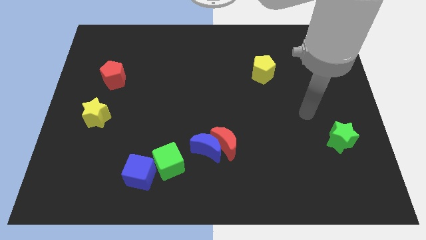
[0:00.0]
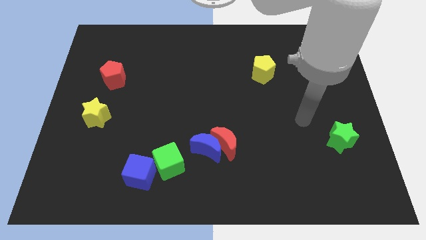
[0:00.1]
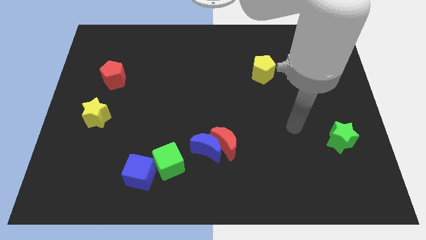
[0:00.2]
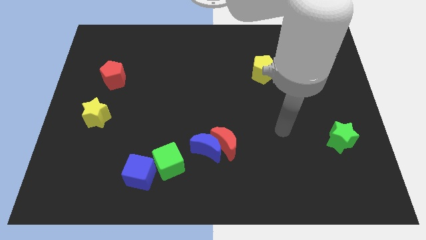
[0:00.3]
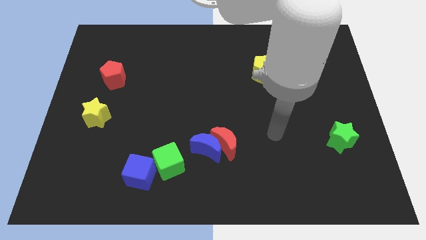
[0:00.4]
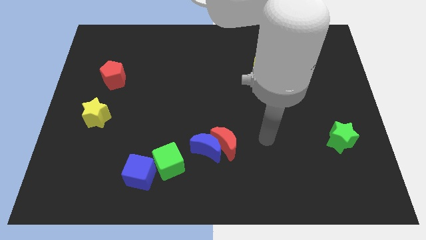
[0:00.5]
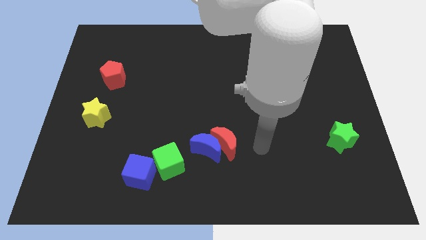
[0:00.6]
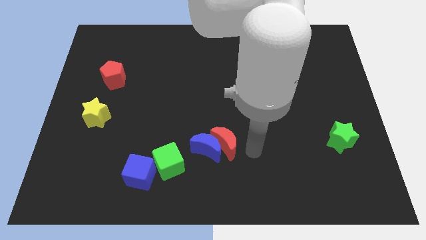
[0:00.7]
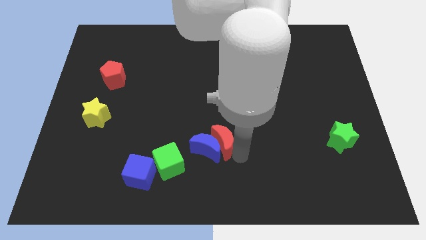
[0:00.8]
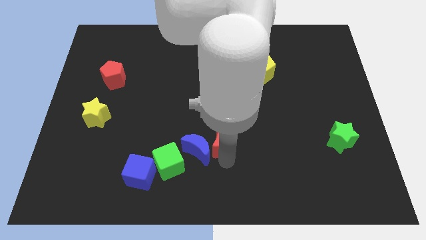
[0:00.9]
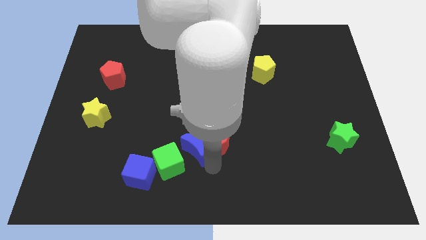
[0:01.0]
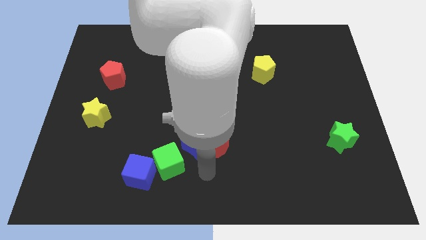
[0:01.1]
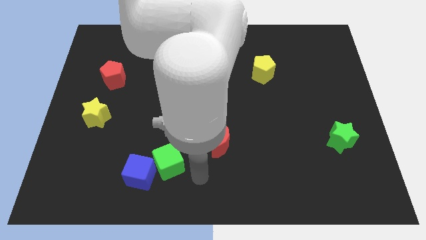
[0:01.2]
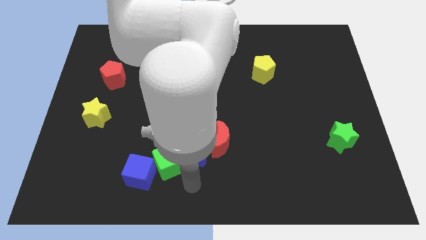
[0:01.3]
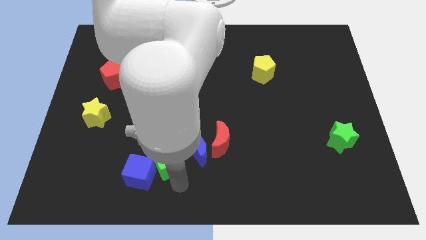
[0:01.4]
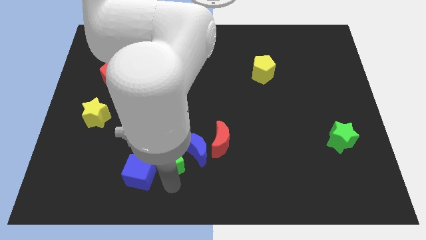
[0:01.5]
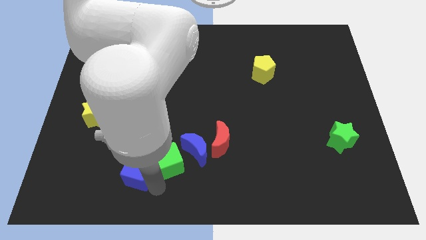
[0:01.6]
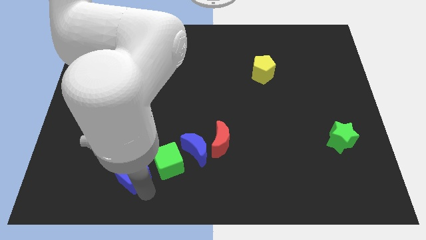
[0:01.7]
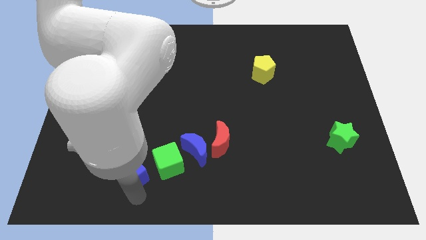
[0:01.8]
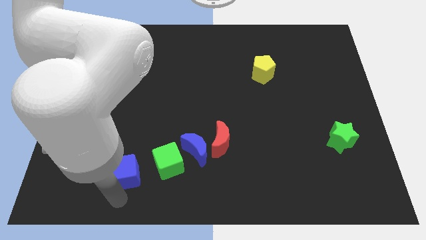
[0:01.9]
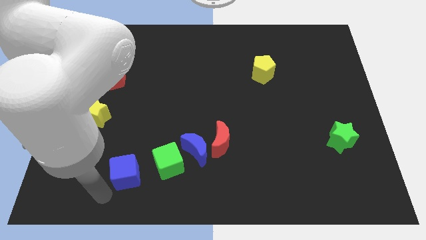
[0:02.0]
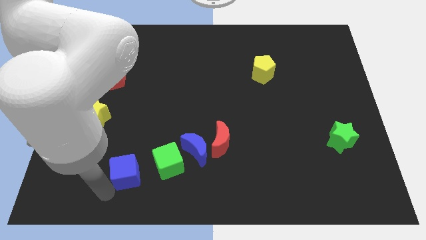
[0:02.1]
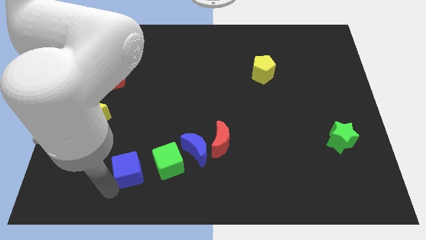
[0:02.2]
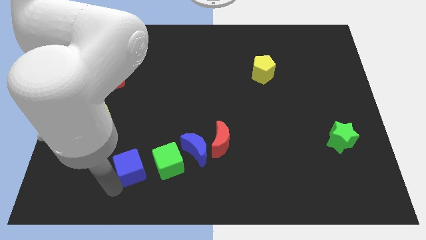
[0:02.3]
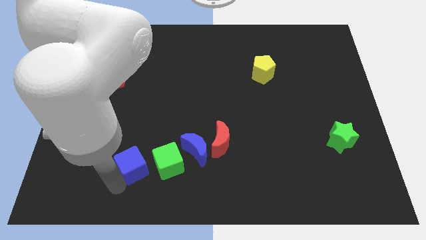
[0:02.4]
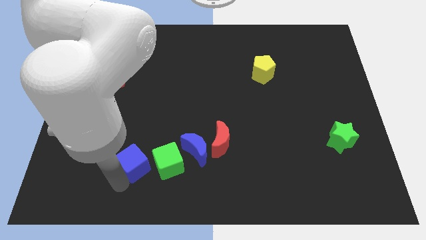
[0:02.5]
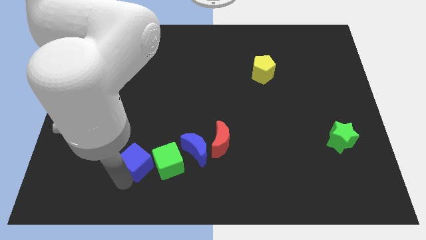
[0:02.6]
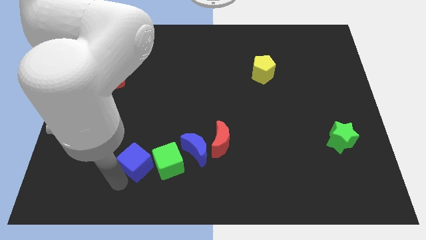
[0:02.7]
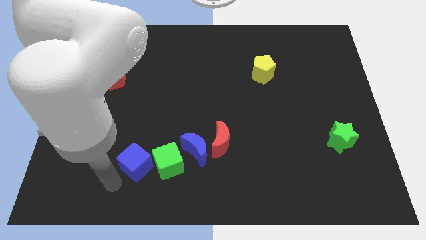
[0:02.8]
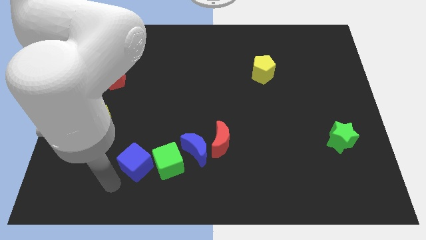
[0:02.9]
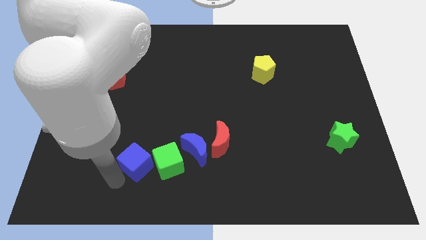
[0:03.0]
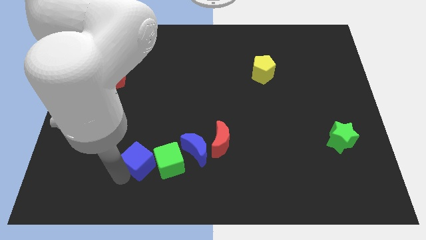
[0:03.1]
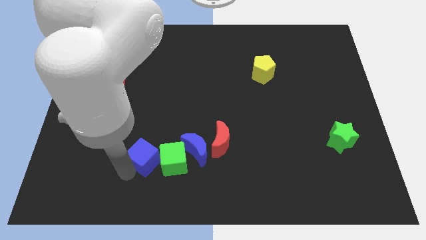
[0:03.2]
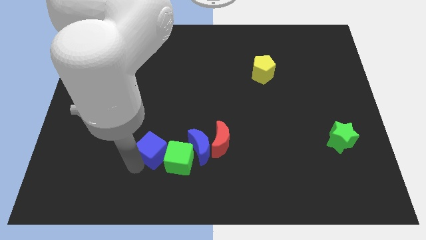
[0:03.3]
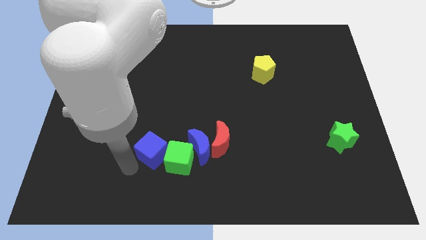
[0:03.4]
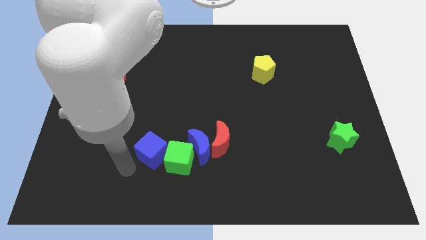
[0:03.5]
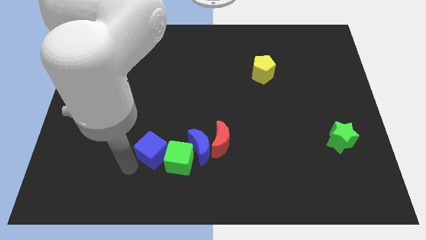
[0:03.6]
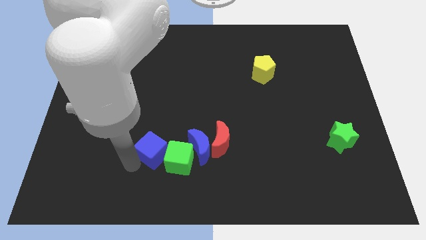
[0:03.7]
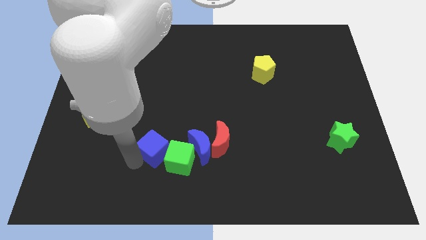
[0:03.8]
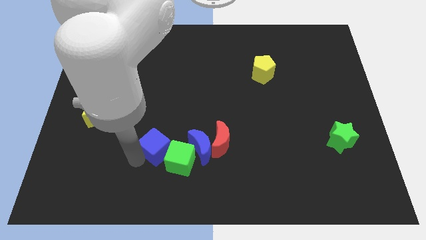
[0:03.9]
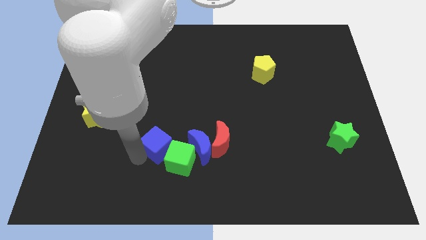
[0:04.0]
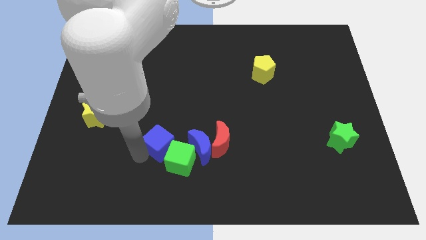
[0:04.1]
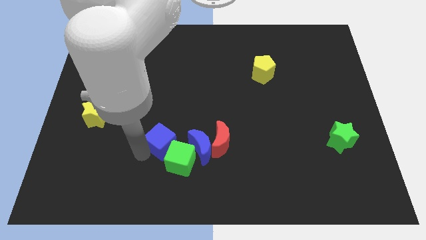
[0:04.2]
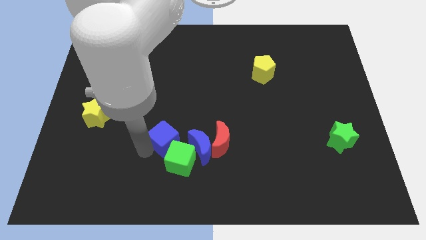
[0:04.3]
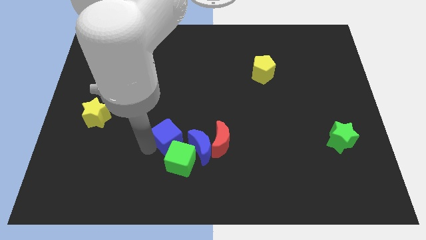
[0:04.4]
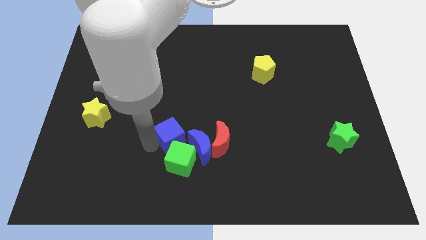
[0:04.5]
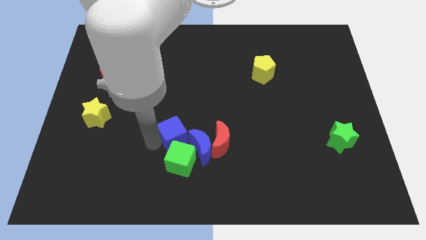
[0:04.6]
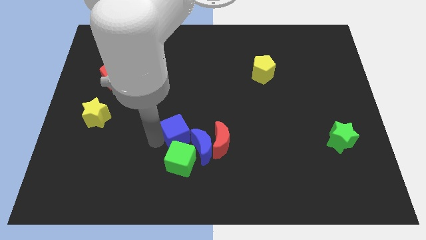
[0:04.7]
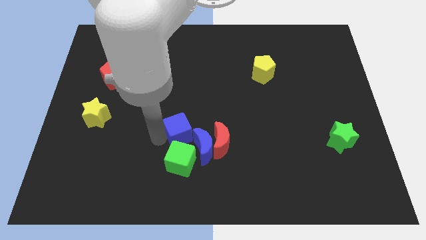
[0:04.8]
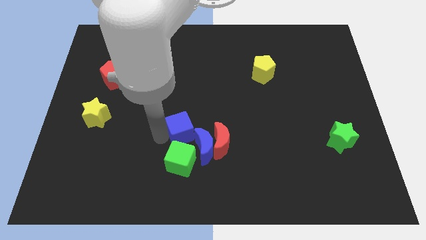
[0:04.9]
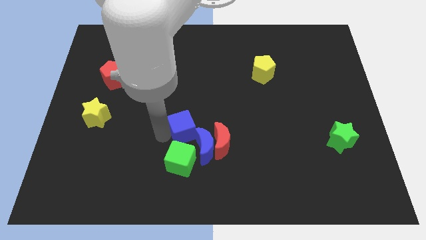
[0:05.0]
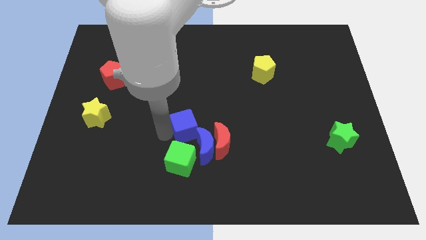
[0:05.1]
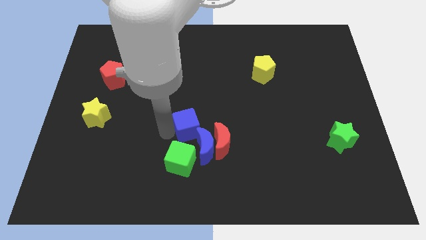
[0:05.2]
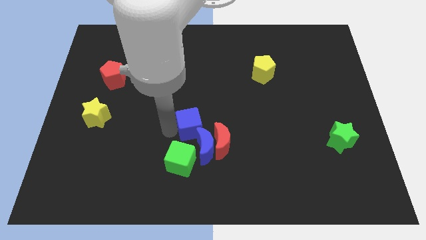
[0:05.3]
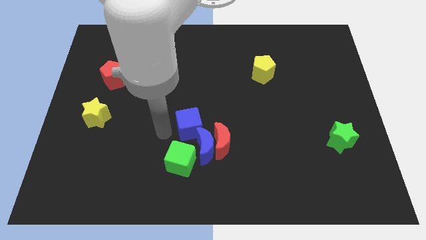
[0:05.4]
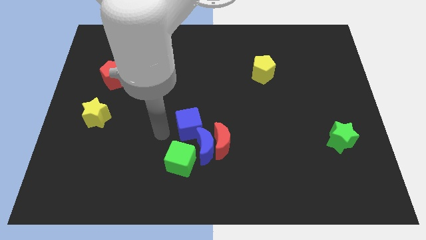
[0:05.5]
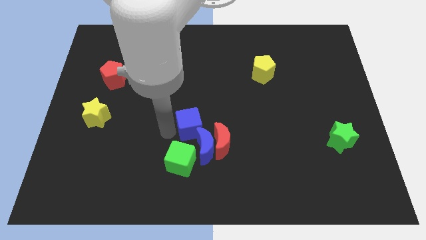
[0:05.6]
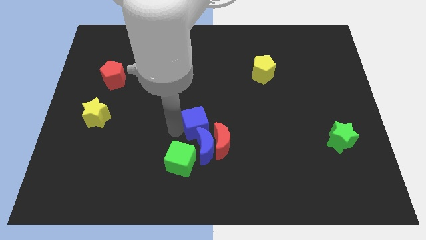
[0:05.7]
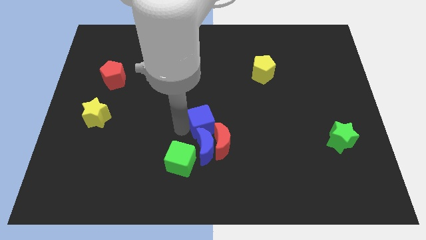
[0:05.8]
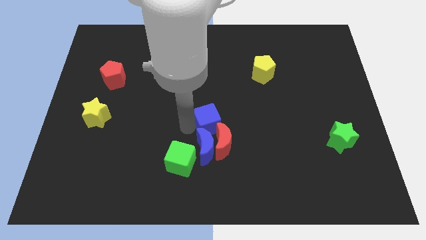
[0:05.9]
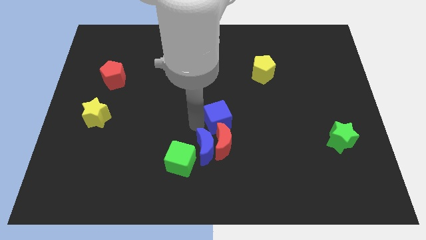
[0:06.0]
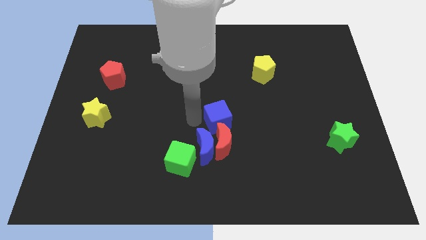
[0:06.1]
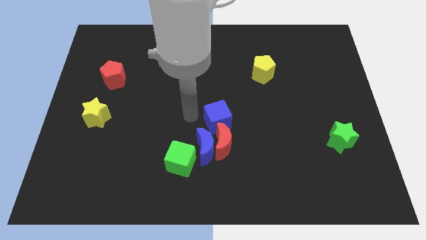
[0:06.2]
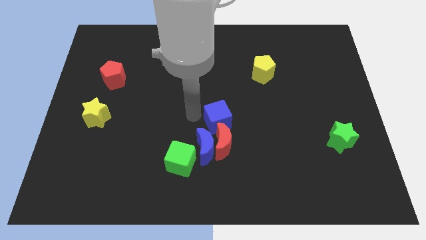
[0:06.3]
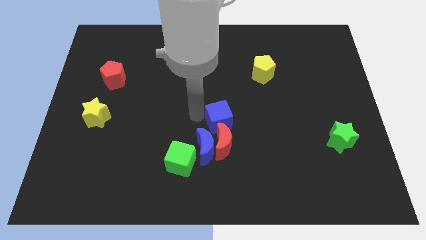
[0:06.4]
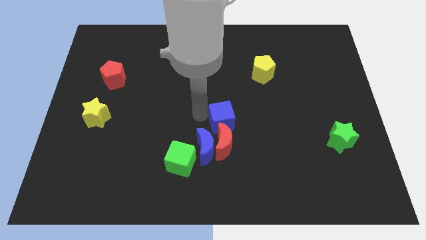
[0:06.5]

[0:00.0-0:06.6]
push the blue cube diagonally up and to the right of the red moon

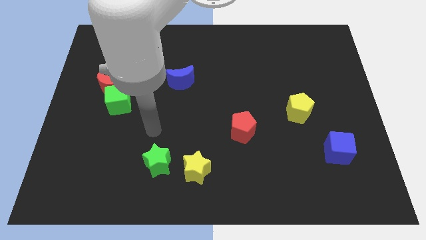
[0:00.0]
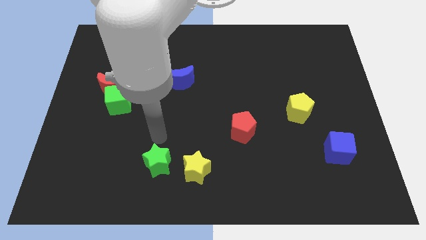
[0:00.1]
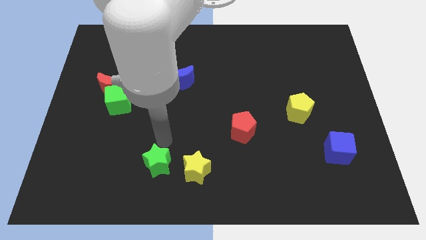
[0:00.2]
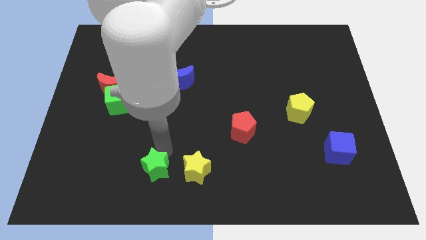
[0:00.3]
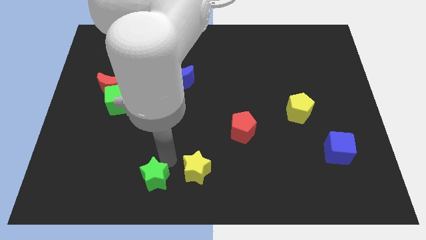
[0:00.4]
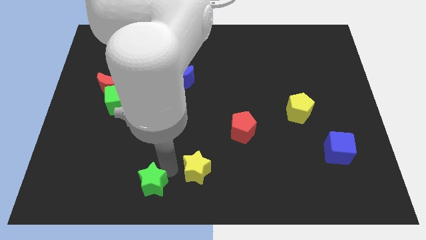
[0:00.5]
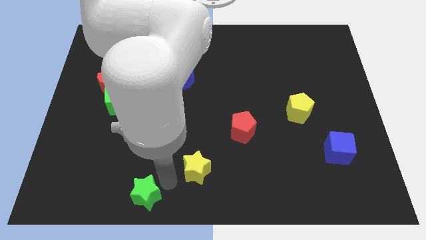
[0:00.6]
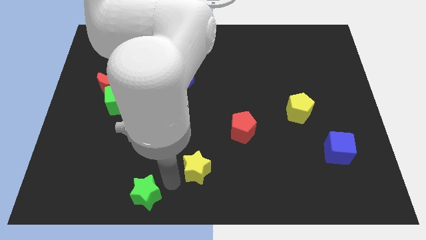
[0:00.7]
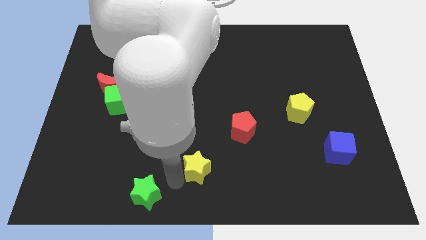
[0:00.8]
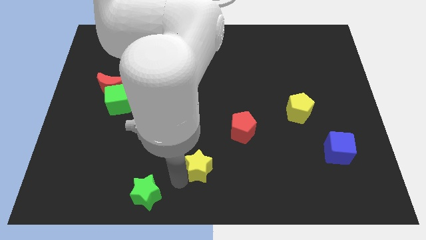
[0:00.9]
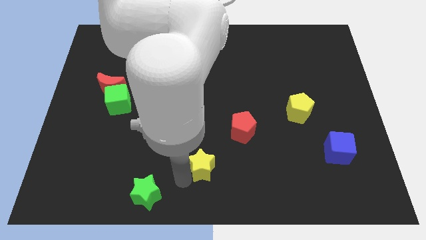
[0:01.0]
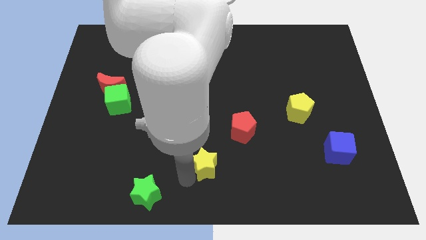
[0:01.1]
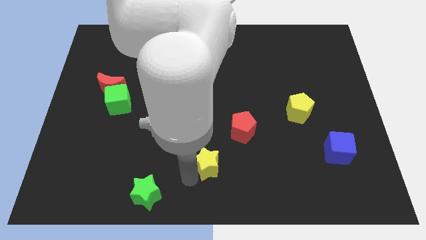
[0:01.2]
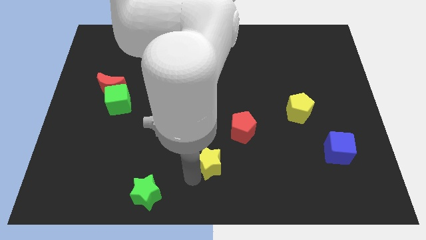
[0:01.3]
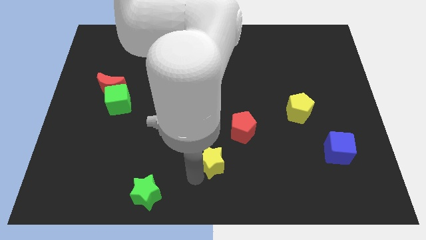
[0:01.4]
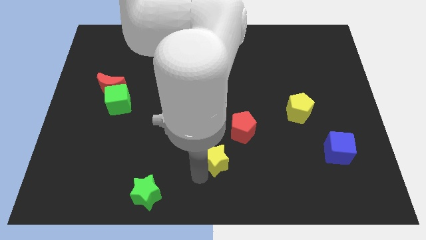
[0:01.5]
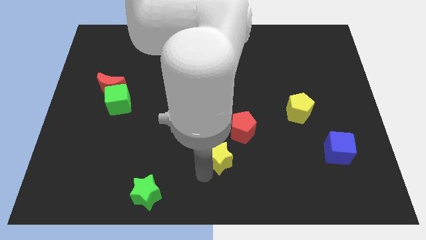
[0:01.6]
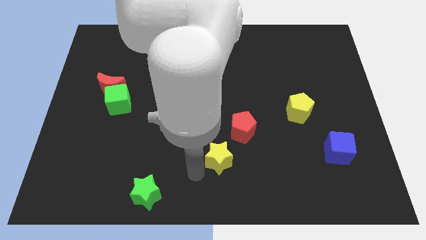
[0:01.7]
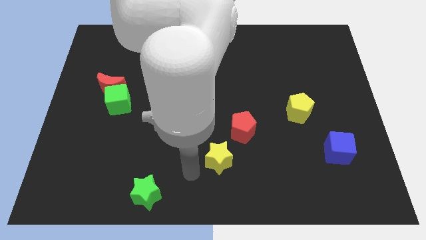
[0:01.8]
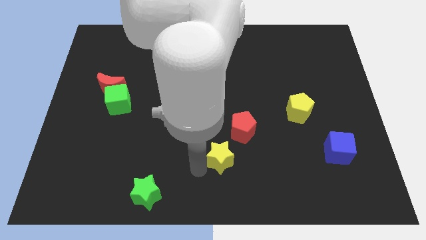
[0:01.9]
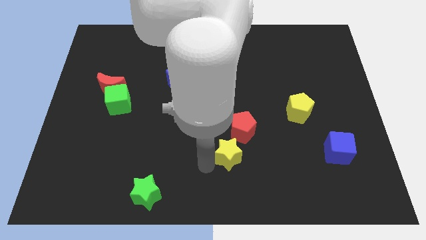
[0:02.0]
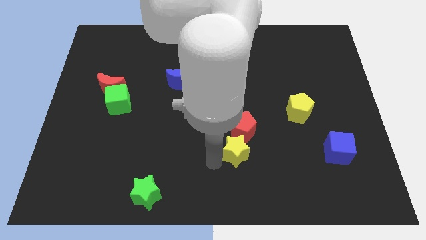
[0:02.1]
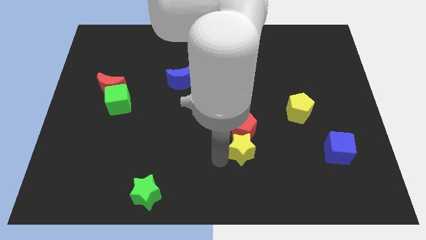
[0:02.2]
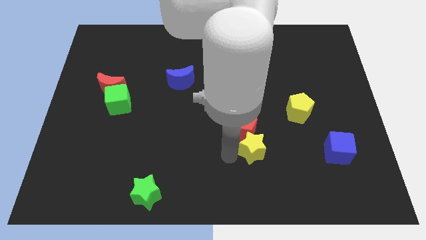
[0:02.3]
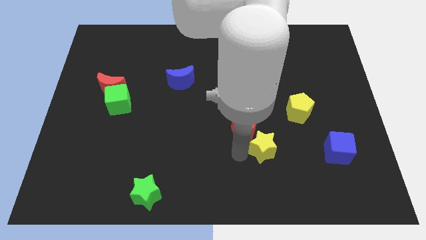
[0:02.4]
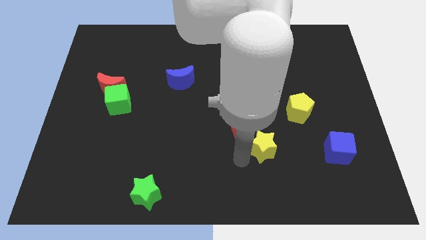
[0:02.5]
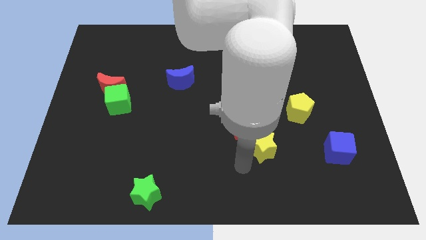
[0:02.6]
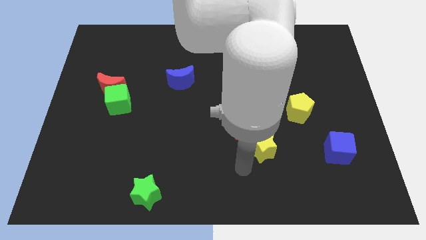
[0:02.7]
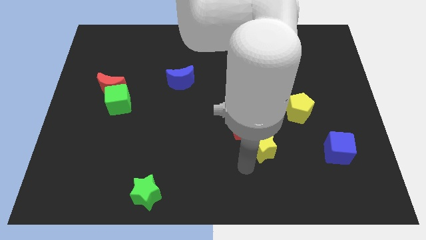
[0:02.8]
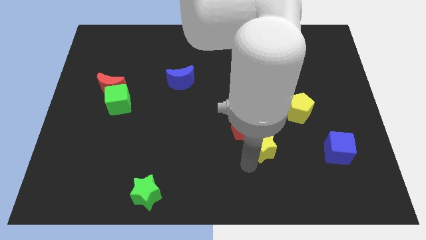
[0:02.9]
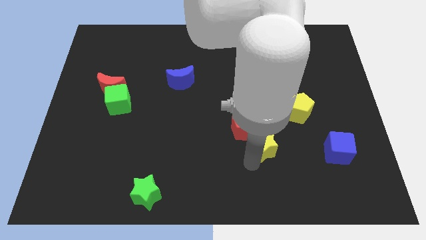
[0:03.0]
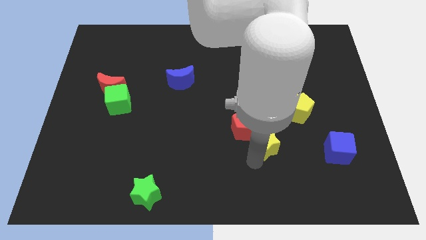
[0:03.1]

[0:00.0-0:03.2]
push the yellow star to the bottom left side of the yellow pentagon
